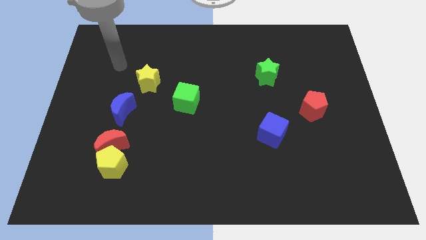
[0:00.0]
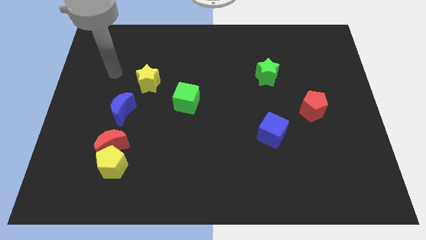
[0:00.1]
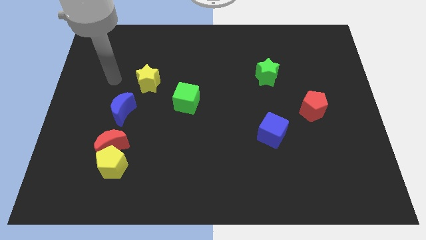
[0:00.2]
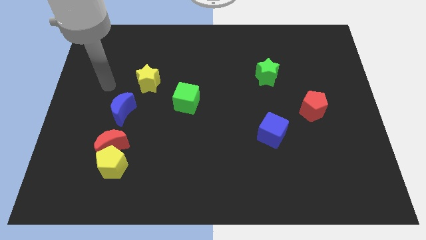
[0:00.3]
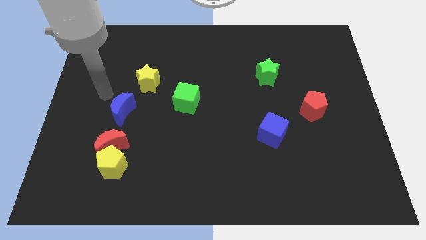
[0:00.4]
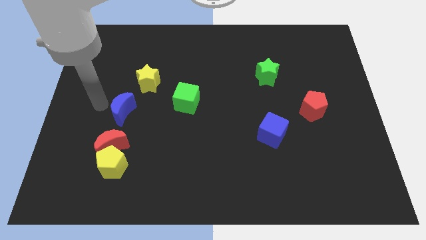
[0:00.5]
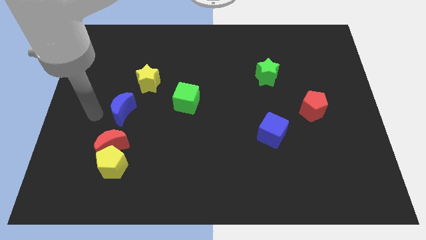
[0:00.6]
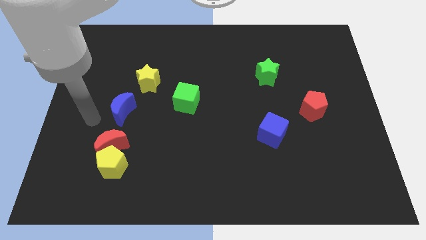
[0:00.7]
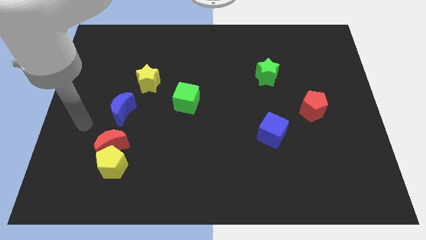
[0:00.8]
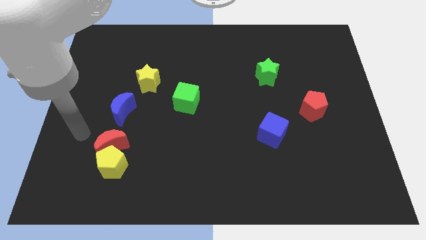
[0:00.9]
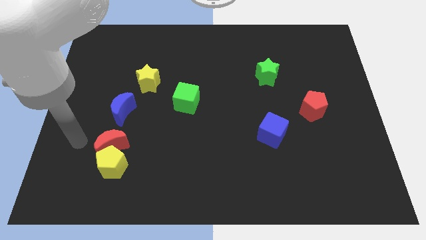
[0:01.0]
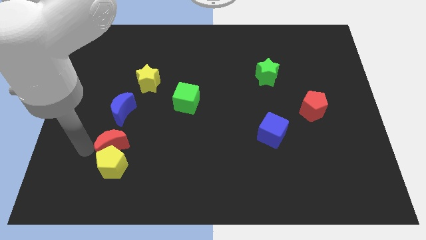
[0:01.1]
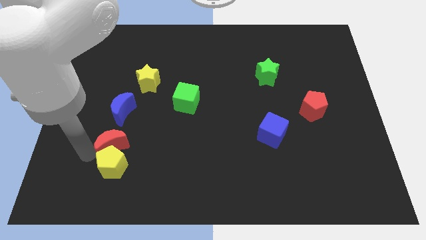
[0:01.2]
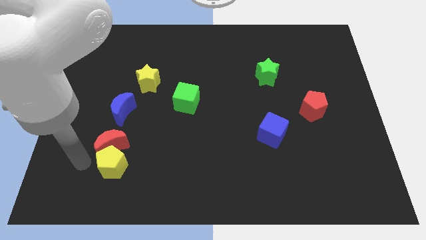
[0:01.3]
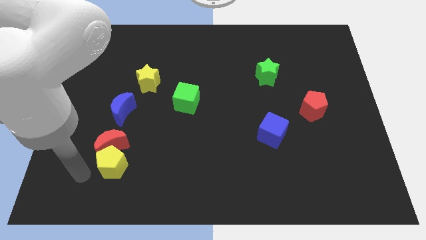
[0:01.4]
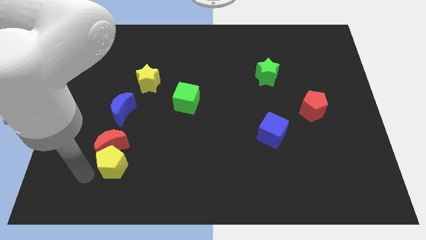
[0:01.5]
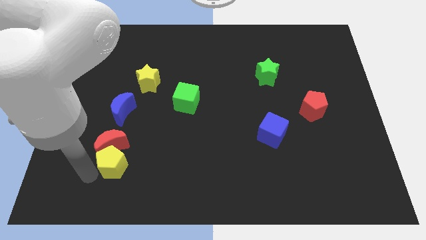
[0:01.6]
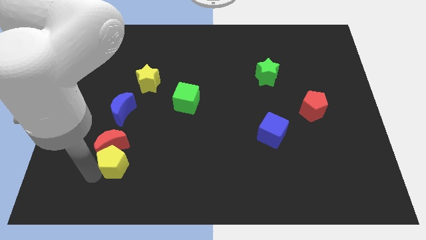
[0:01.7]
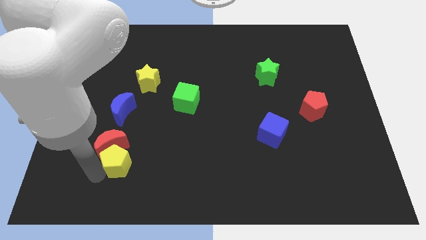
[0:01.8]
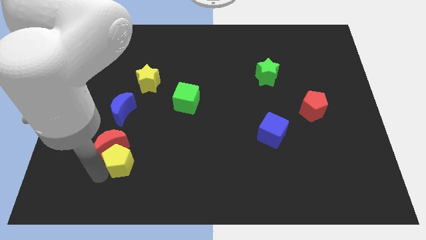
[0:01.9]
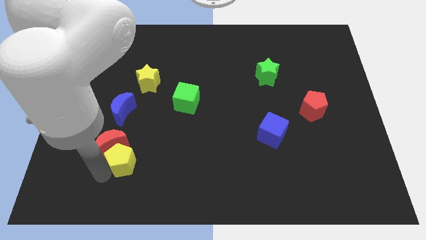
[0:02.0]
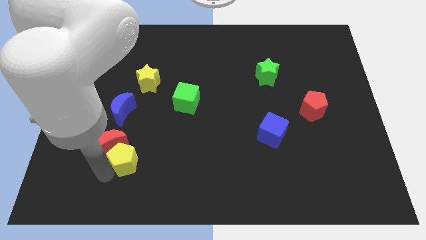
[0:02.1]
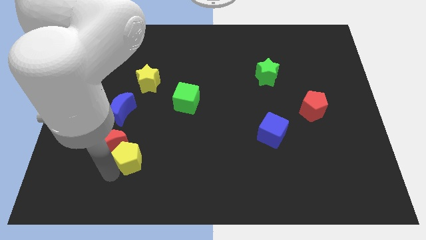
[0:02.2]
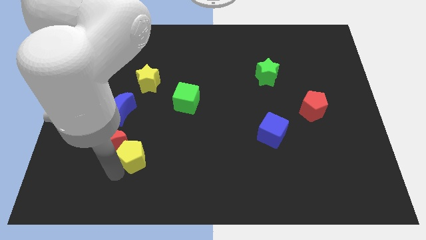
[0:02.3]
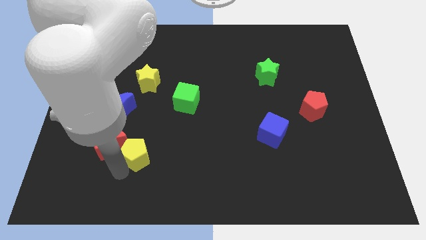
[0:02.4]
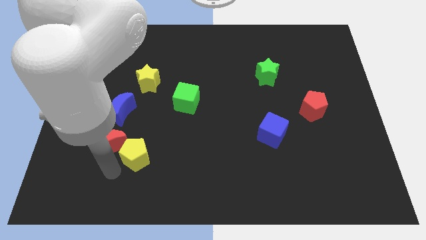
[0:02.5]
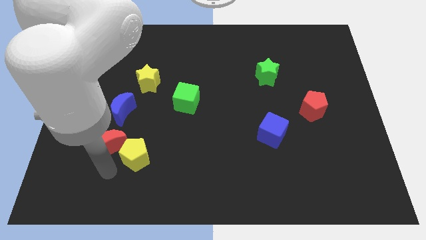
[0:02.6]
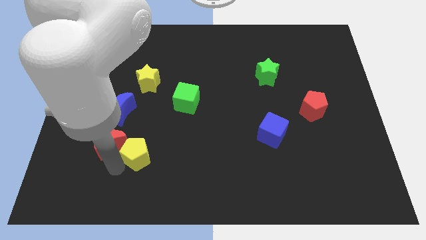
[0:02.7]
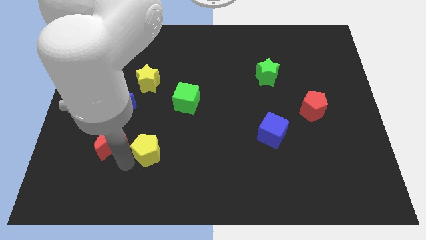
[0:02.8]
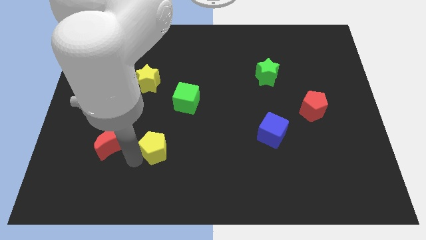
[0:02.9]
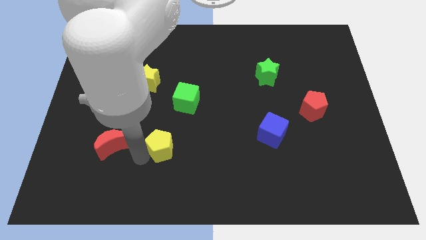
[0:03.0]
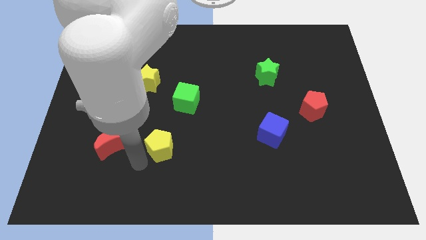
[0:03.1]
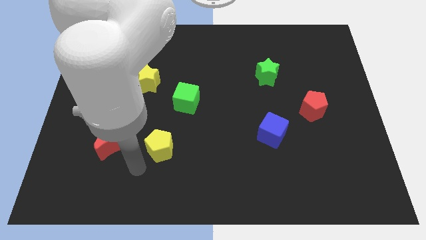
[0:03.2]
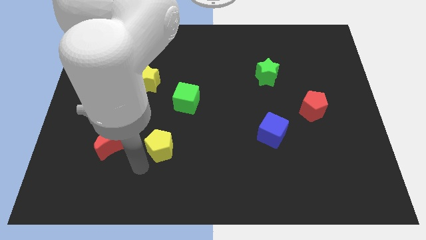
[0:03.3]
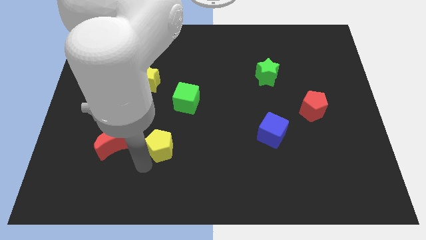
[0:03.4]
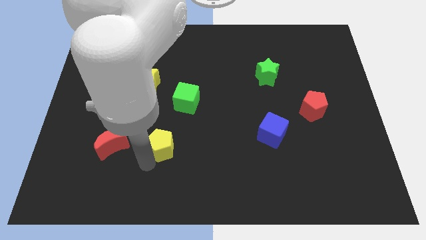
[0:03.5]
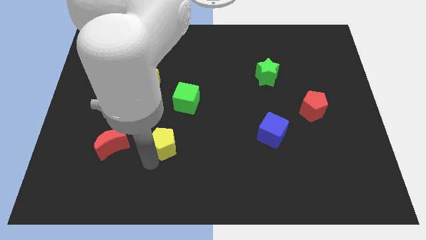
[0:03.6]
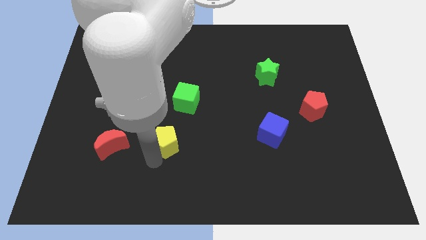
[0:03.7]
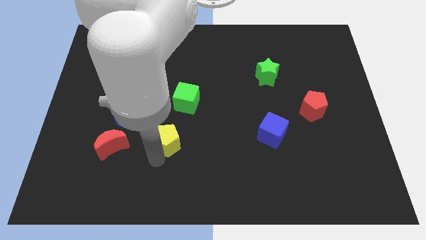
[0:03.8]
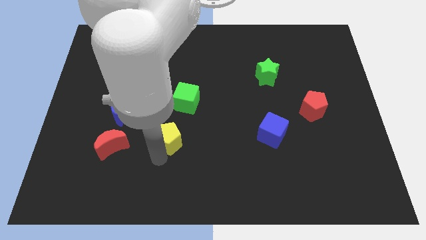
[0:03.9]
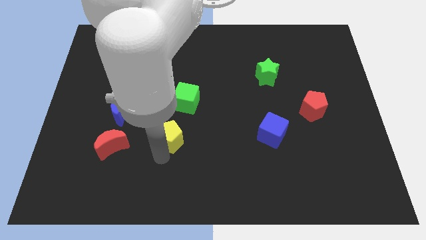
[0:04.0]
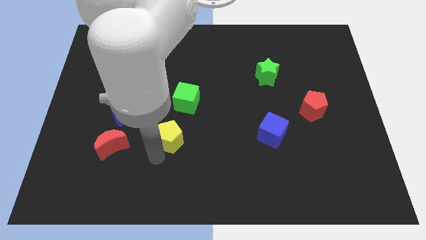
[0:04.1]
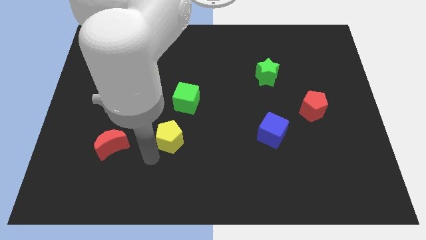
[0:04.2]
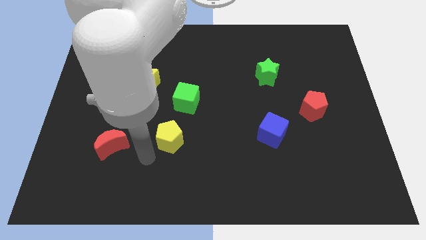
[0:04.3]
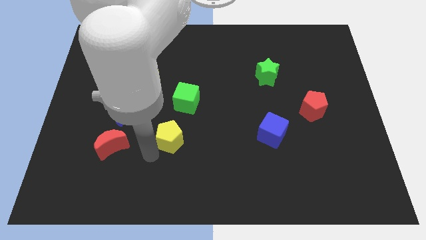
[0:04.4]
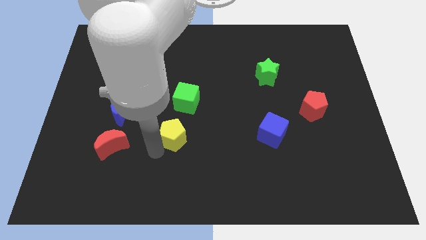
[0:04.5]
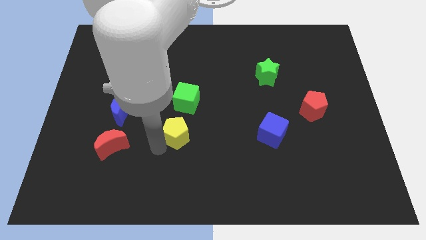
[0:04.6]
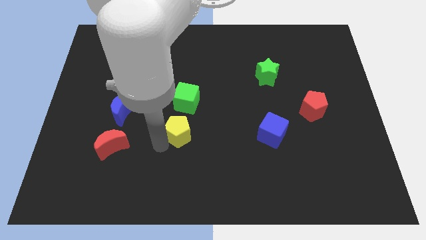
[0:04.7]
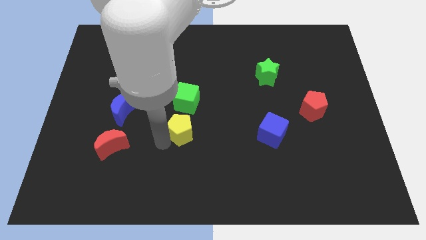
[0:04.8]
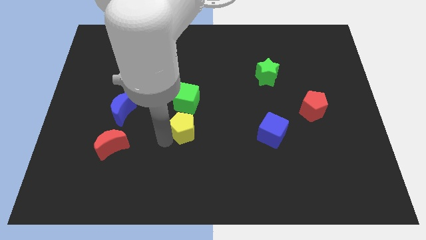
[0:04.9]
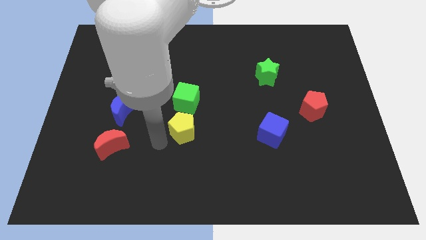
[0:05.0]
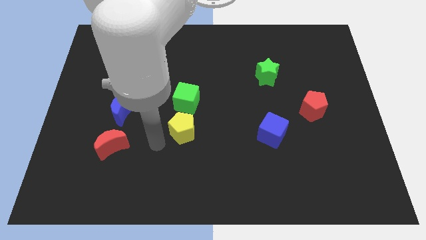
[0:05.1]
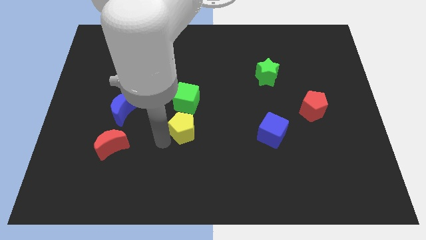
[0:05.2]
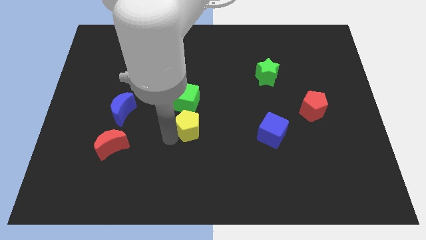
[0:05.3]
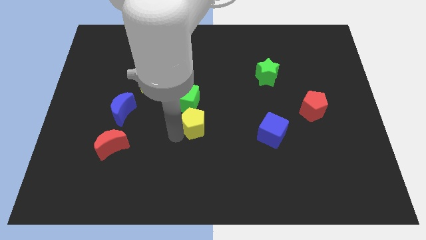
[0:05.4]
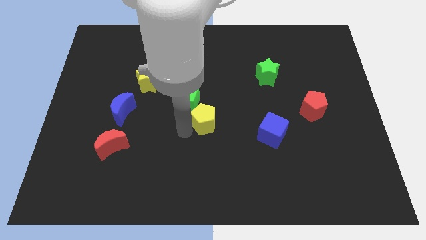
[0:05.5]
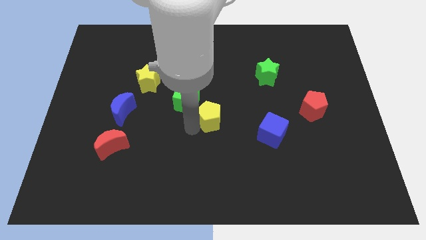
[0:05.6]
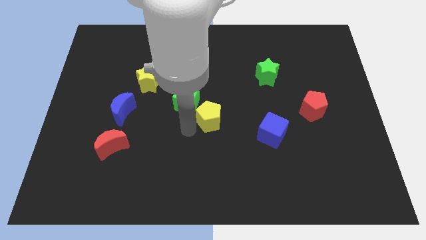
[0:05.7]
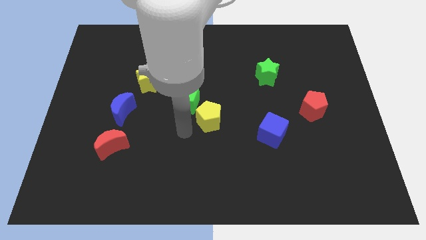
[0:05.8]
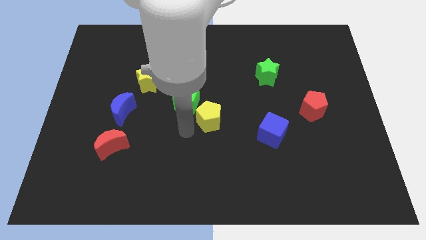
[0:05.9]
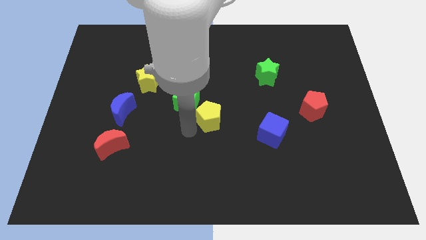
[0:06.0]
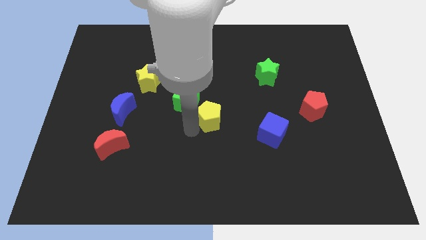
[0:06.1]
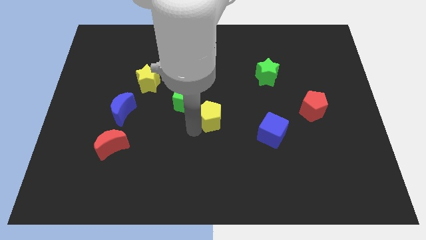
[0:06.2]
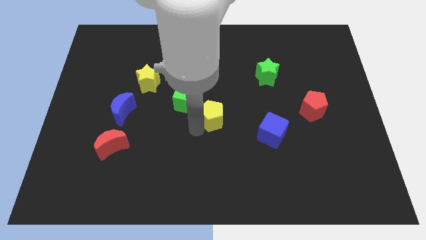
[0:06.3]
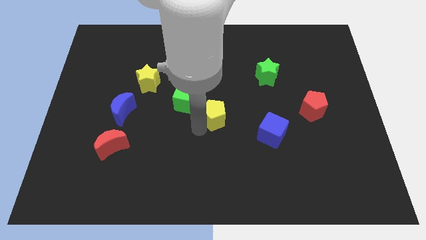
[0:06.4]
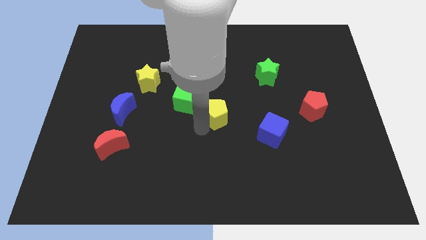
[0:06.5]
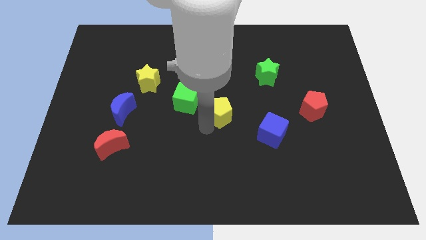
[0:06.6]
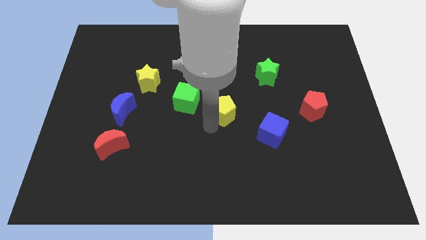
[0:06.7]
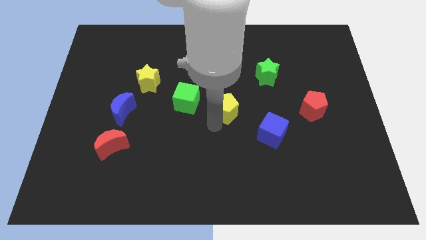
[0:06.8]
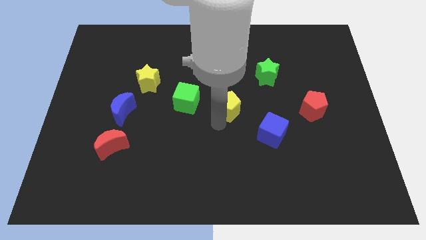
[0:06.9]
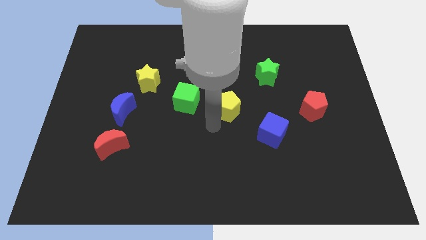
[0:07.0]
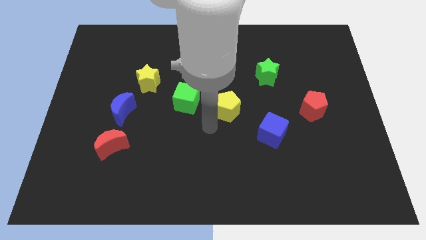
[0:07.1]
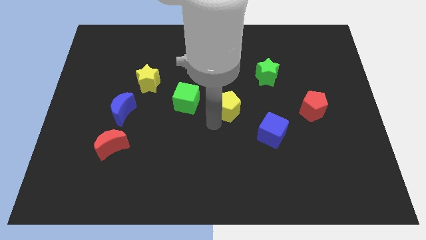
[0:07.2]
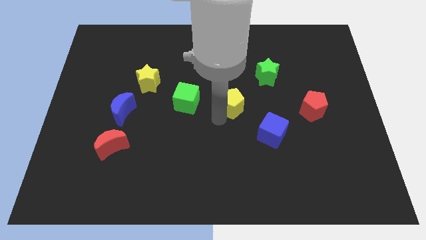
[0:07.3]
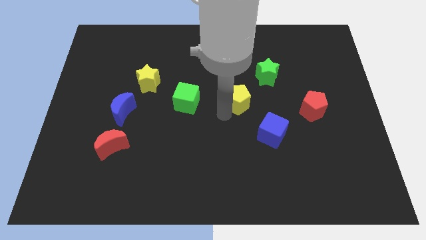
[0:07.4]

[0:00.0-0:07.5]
slide the yellow pentagon to the bottom left side of the green star
